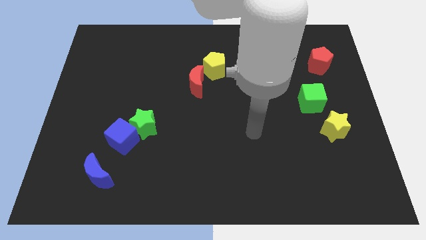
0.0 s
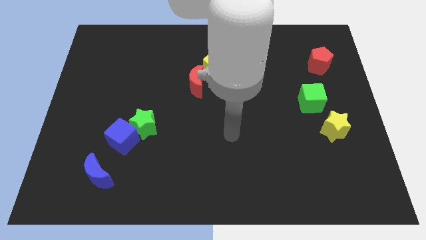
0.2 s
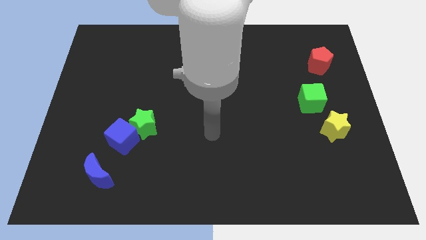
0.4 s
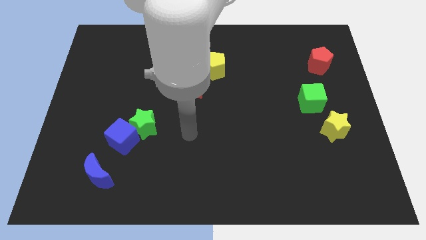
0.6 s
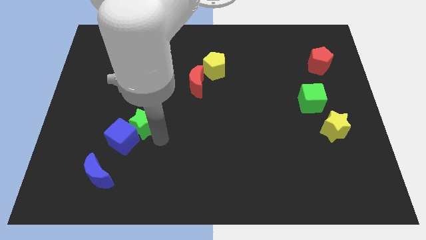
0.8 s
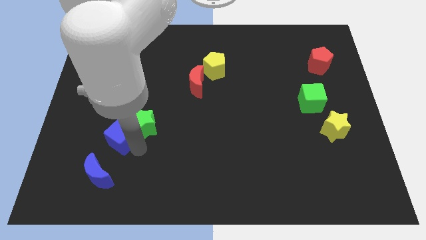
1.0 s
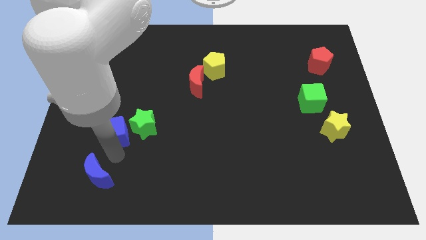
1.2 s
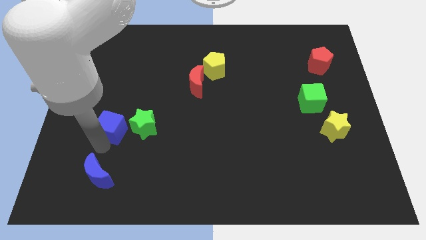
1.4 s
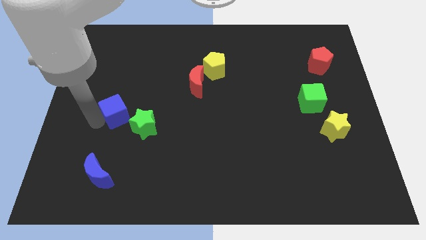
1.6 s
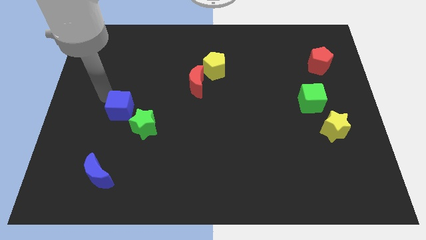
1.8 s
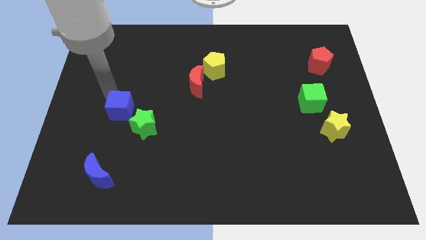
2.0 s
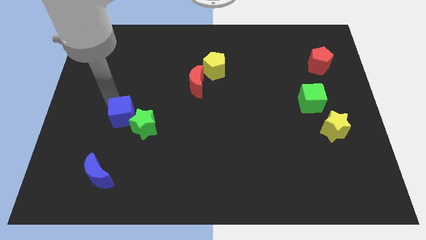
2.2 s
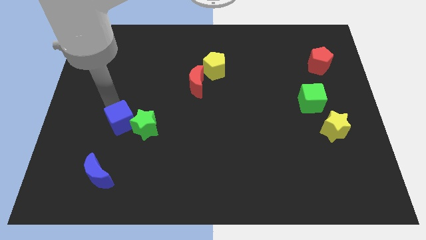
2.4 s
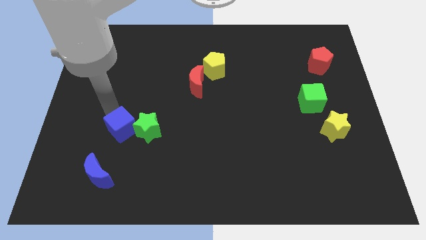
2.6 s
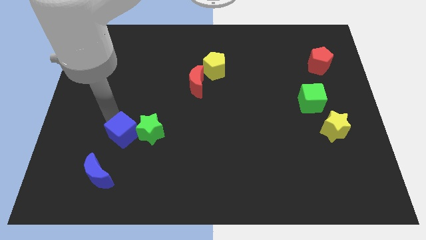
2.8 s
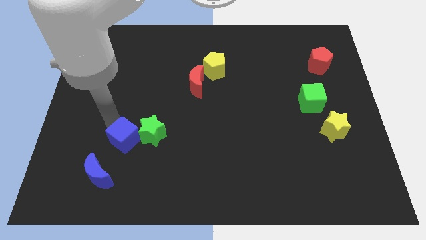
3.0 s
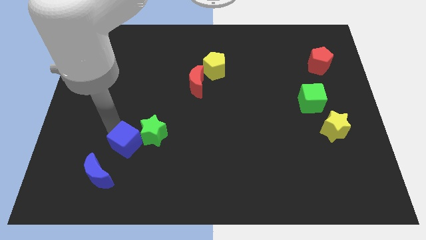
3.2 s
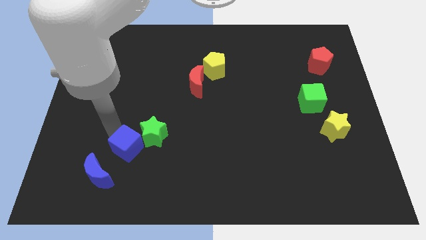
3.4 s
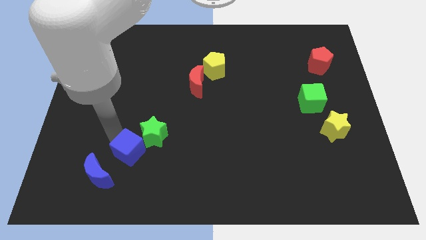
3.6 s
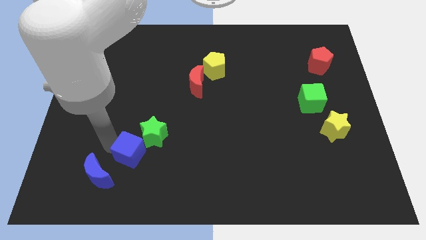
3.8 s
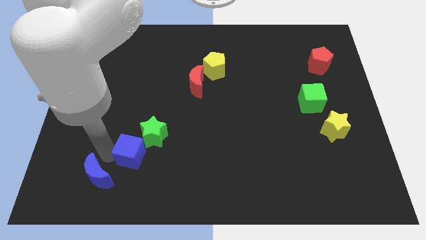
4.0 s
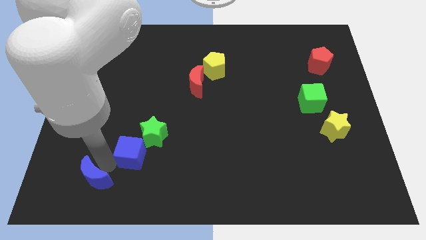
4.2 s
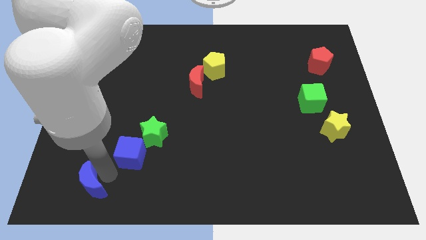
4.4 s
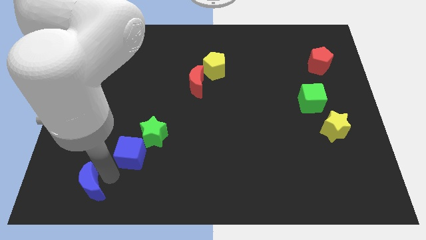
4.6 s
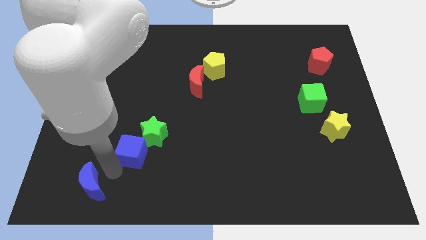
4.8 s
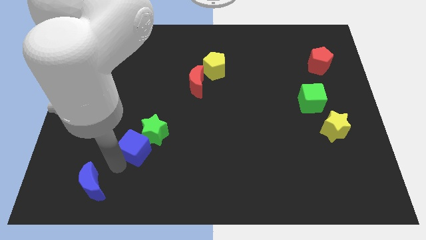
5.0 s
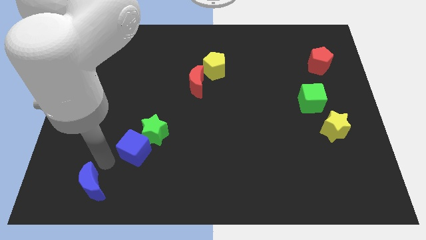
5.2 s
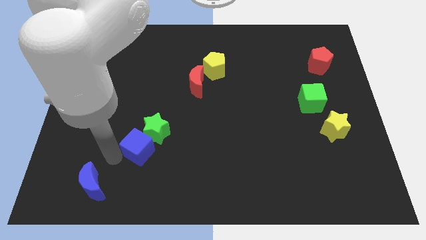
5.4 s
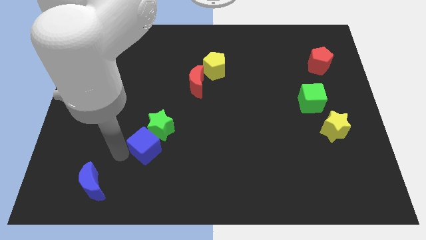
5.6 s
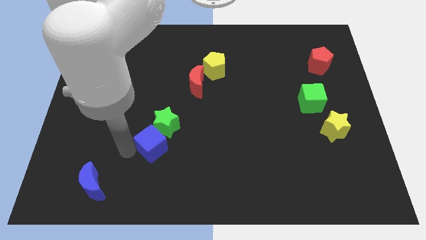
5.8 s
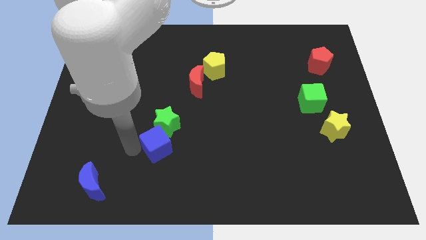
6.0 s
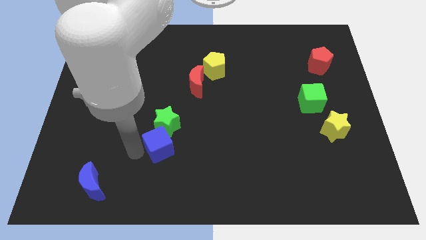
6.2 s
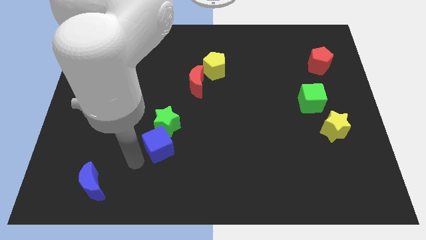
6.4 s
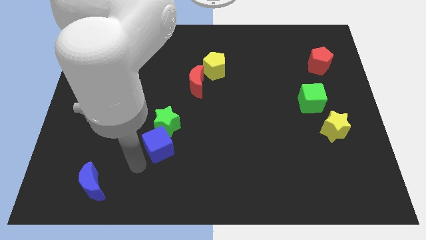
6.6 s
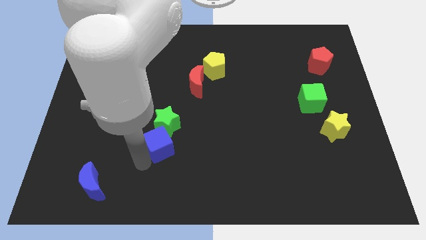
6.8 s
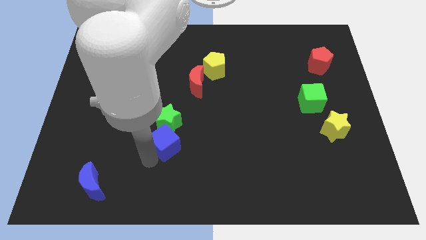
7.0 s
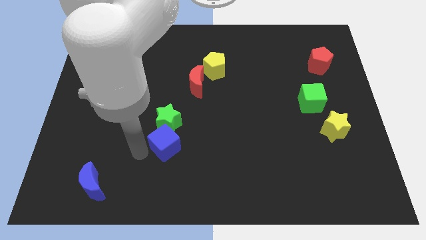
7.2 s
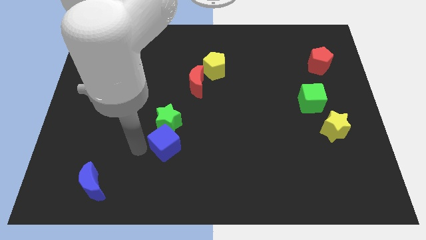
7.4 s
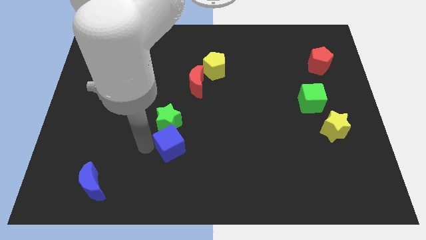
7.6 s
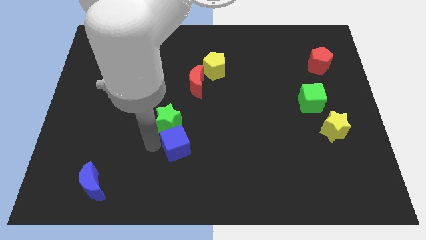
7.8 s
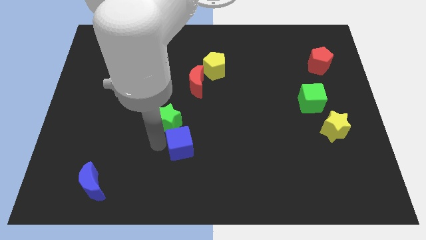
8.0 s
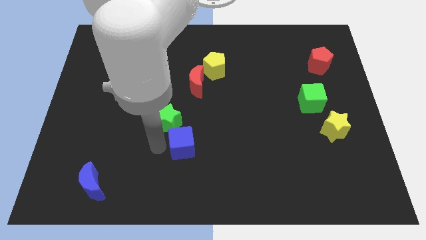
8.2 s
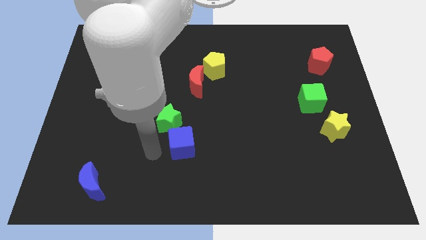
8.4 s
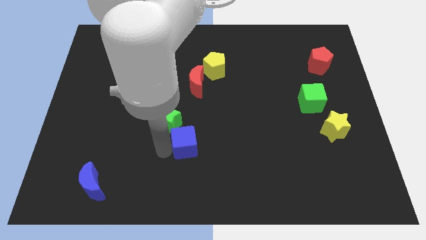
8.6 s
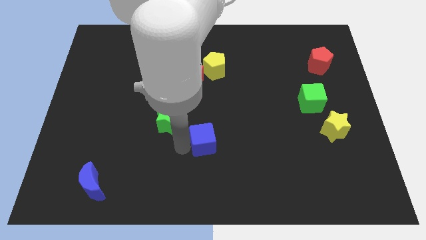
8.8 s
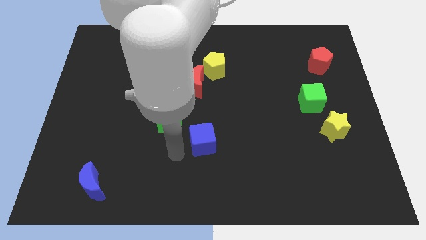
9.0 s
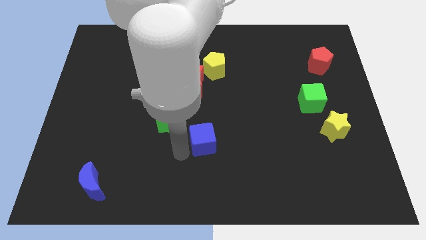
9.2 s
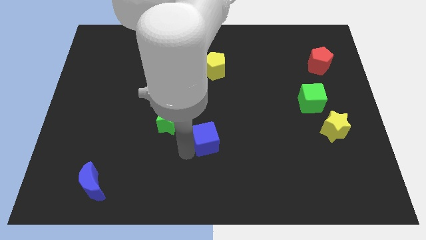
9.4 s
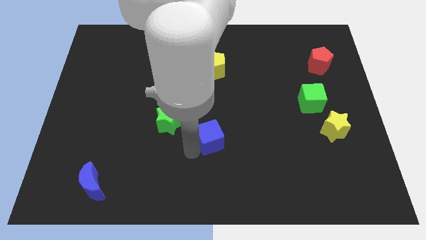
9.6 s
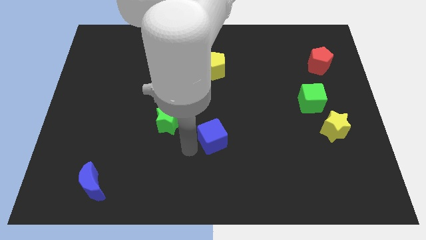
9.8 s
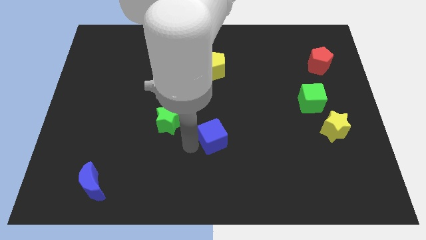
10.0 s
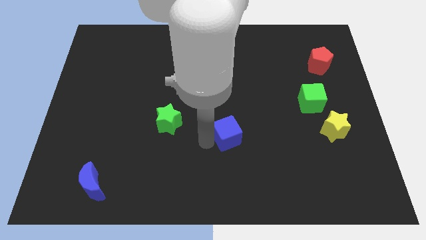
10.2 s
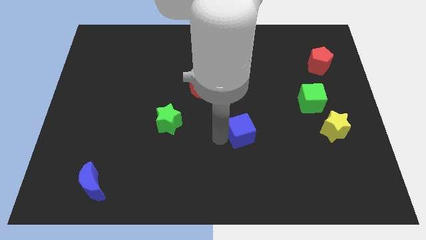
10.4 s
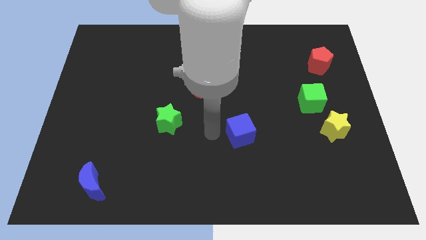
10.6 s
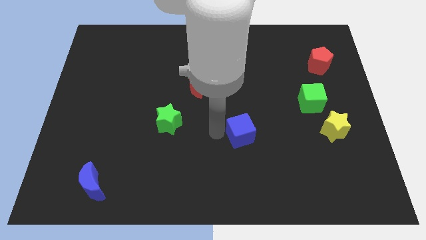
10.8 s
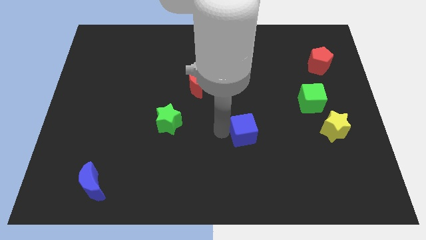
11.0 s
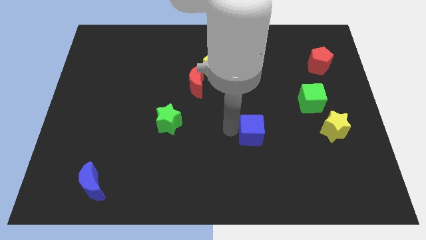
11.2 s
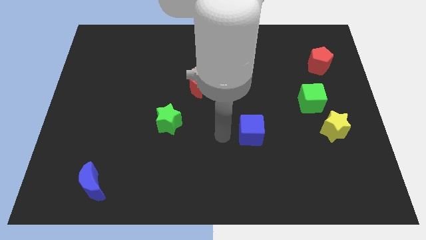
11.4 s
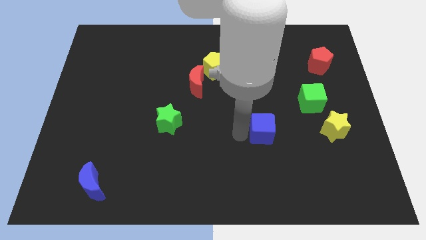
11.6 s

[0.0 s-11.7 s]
push the blue cube to the left side of the yellow star

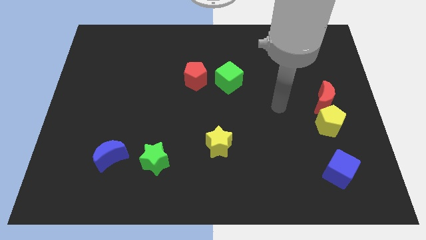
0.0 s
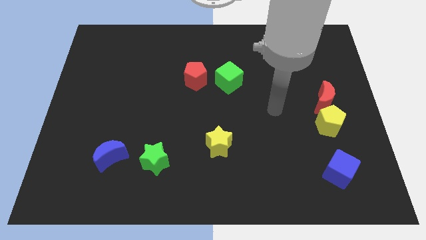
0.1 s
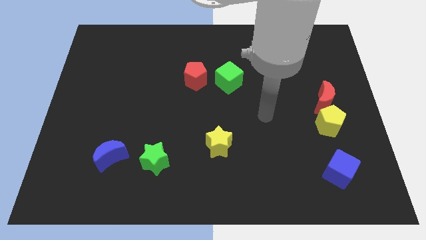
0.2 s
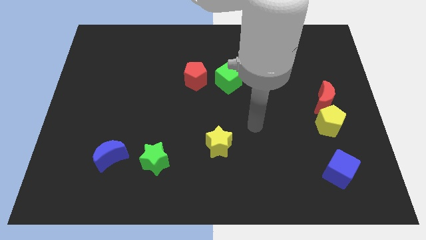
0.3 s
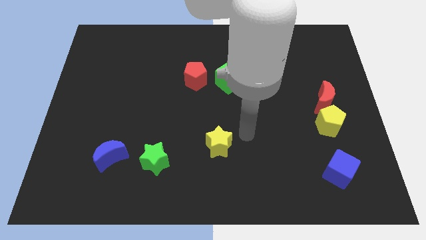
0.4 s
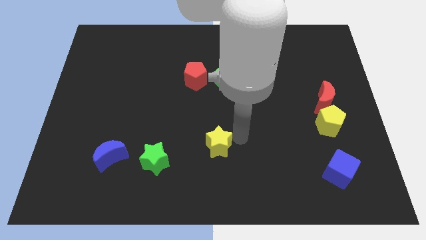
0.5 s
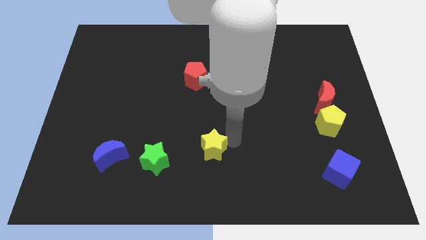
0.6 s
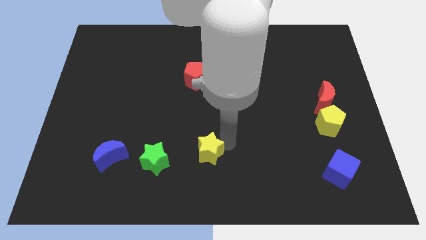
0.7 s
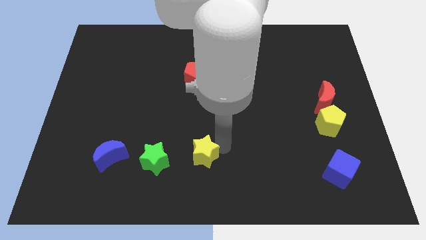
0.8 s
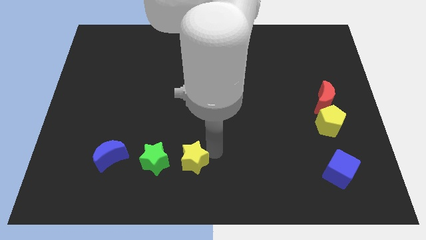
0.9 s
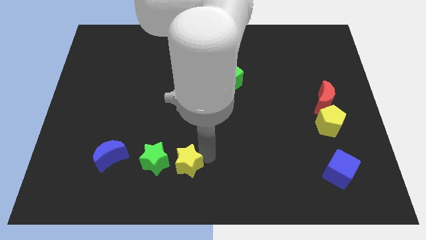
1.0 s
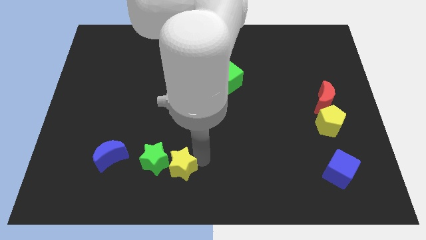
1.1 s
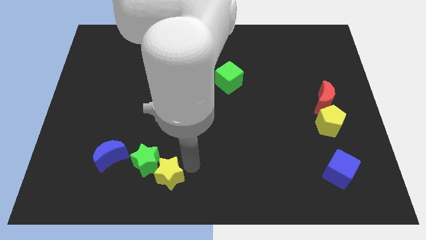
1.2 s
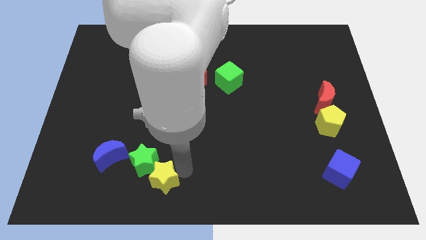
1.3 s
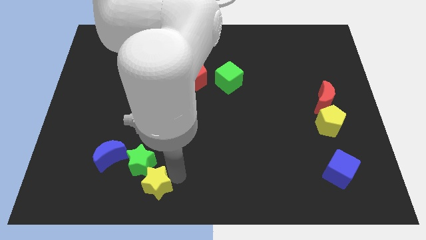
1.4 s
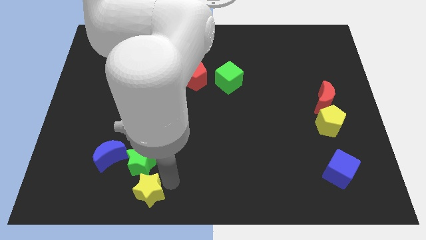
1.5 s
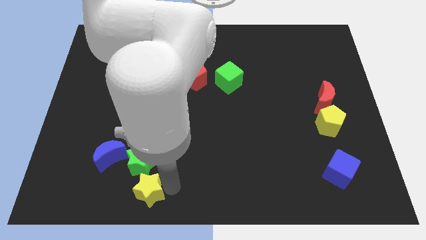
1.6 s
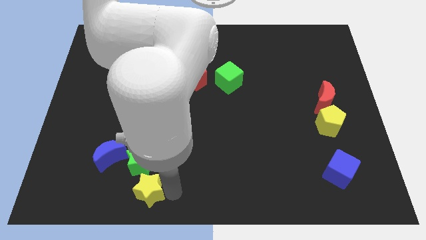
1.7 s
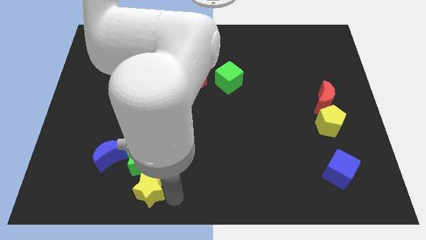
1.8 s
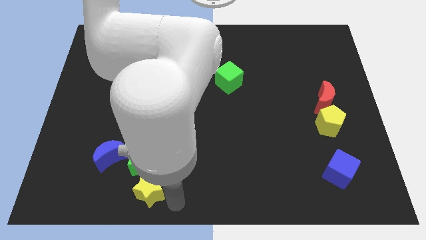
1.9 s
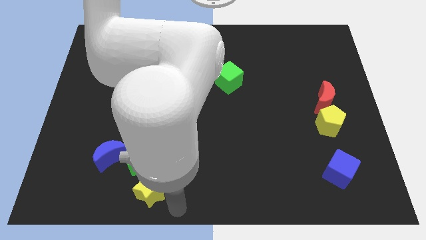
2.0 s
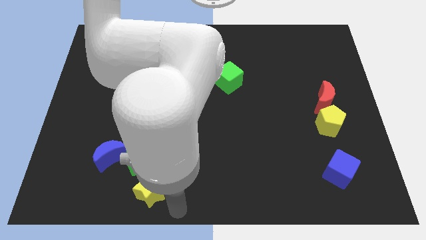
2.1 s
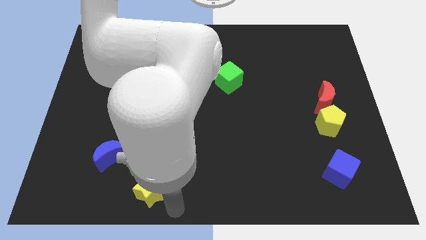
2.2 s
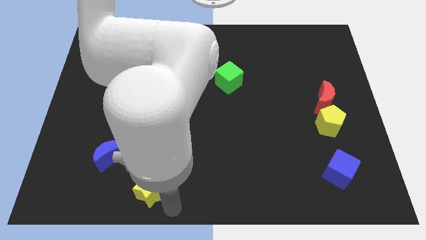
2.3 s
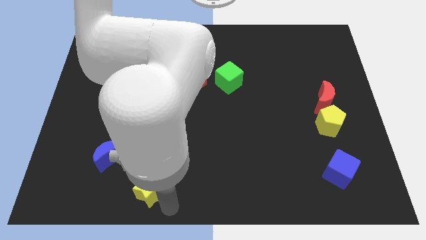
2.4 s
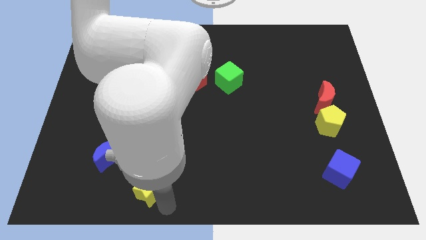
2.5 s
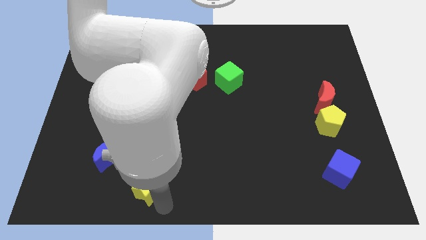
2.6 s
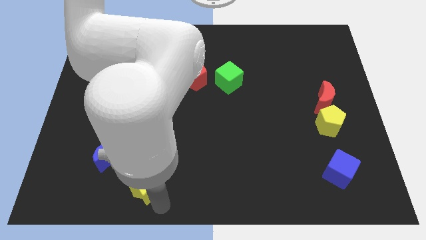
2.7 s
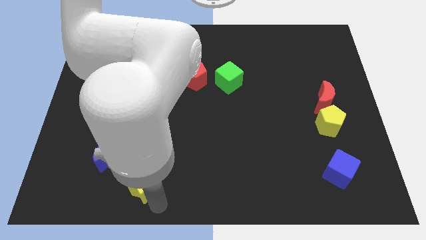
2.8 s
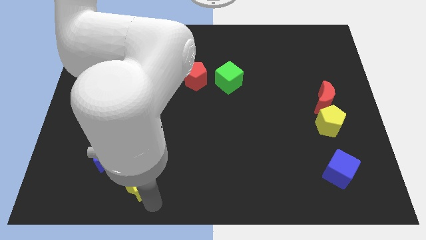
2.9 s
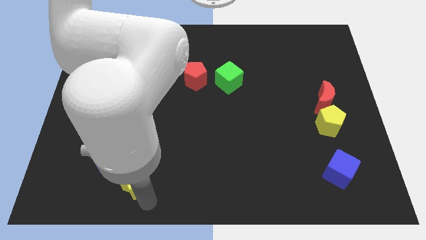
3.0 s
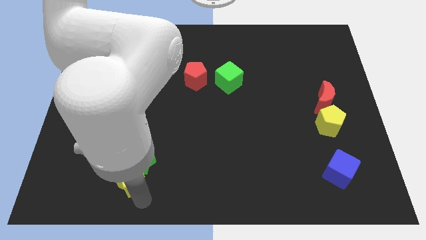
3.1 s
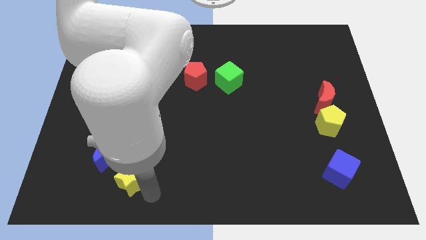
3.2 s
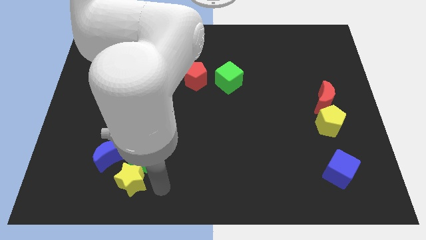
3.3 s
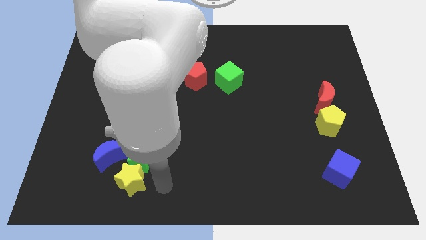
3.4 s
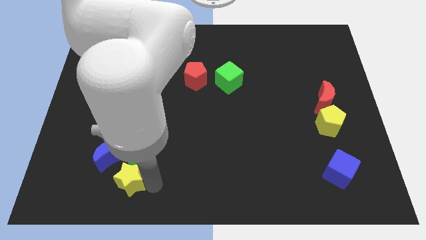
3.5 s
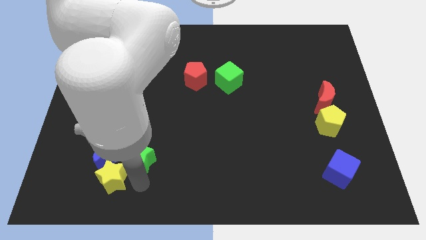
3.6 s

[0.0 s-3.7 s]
move the yellow star to the bottom left of the blue moon
